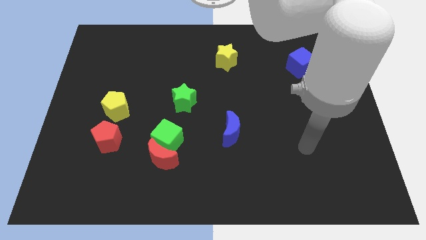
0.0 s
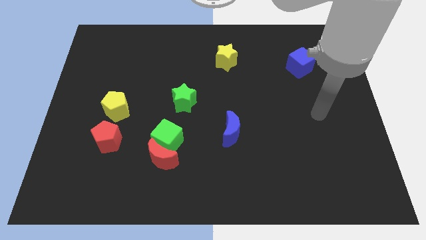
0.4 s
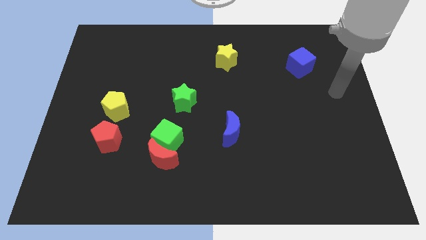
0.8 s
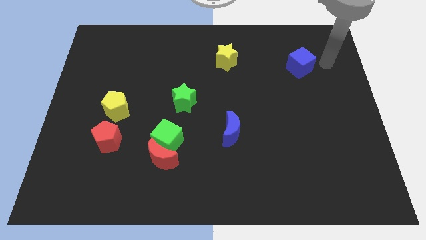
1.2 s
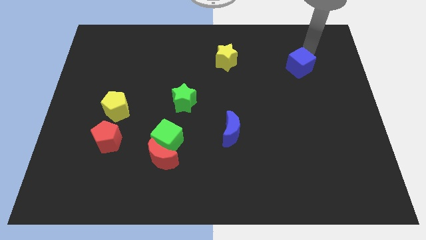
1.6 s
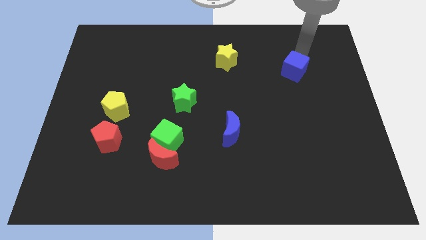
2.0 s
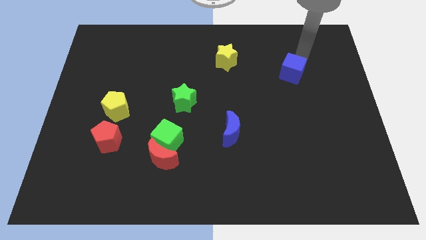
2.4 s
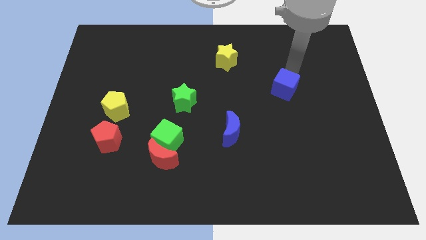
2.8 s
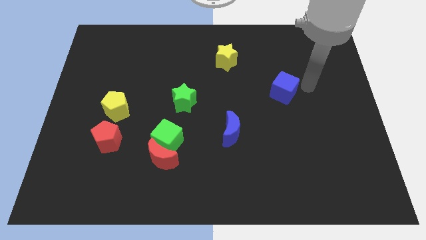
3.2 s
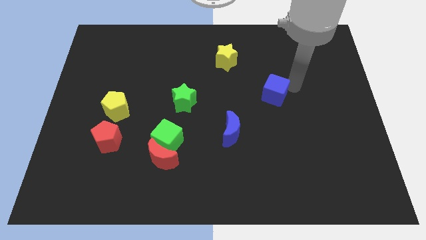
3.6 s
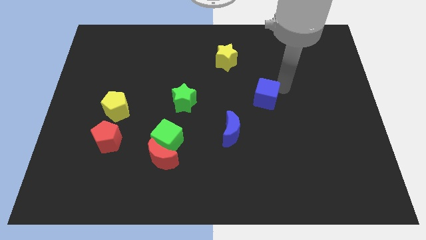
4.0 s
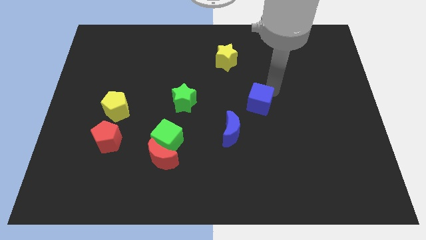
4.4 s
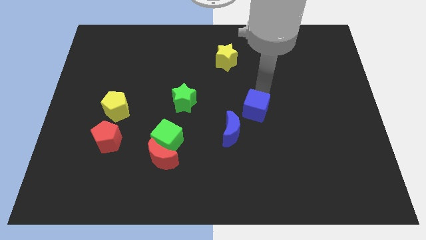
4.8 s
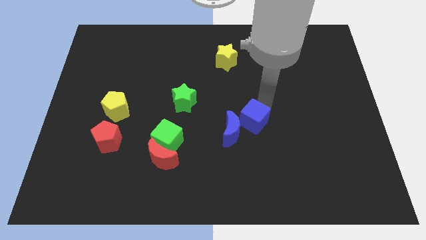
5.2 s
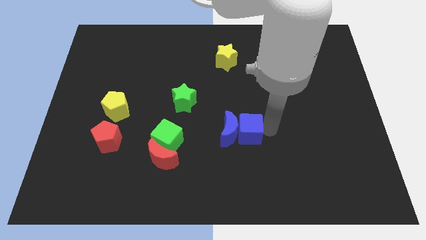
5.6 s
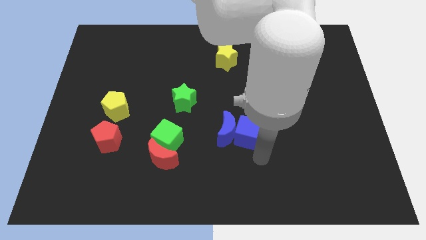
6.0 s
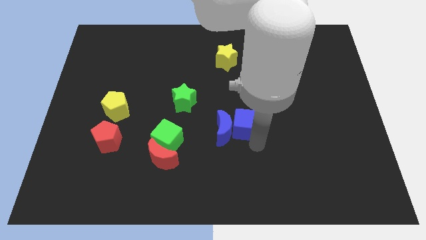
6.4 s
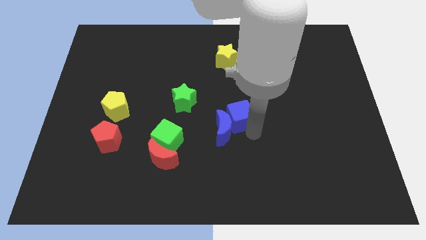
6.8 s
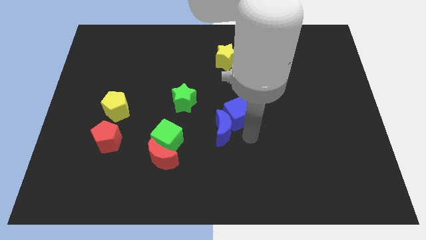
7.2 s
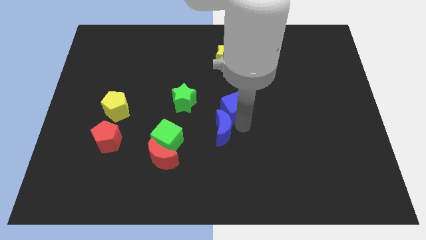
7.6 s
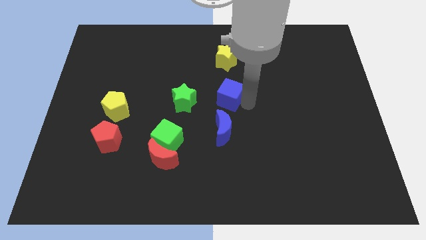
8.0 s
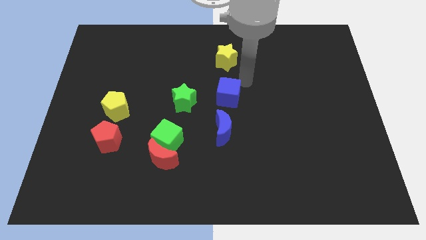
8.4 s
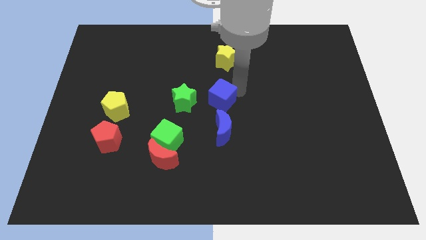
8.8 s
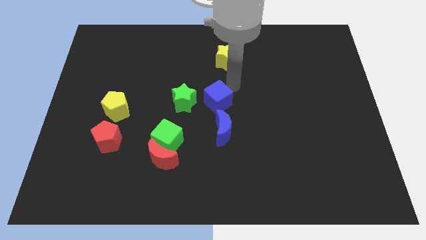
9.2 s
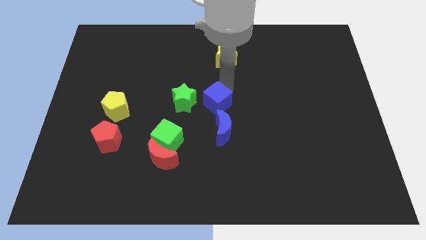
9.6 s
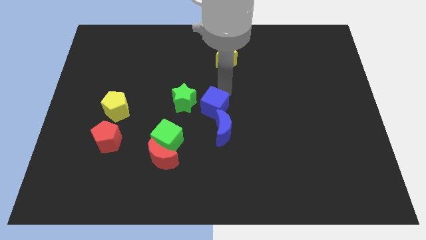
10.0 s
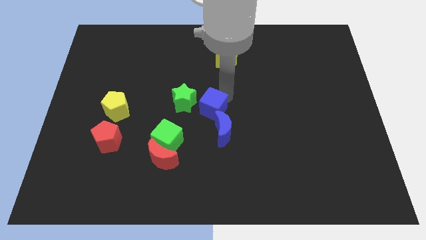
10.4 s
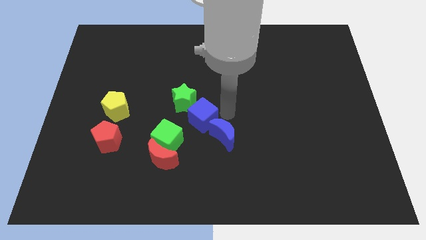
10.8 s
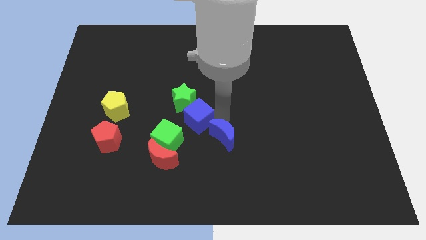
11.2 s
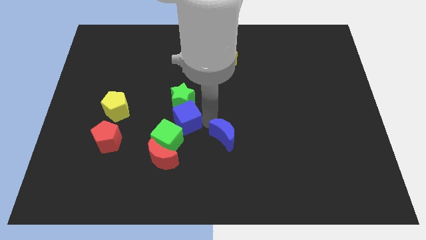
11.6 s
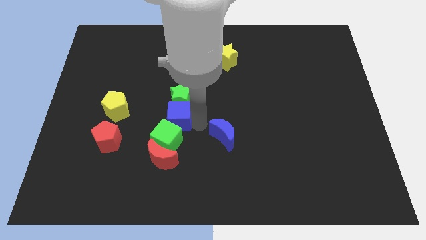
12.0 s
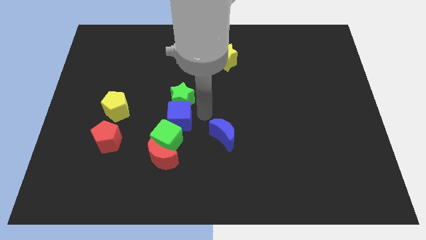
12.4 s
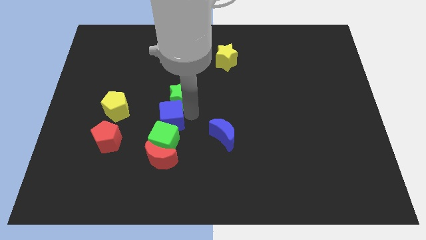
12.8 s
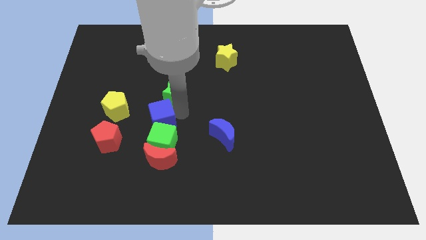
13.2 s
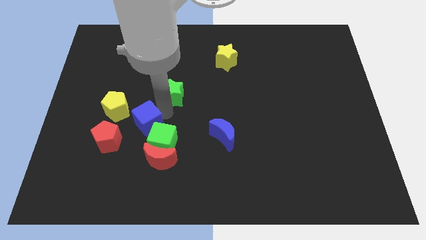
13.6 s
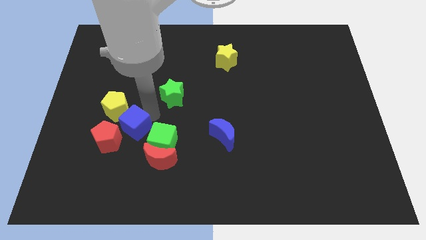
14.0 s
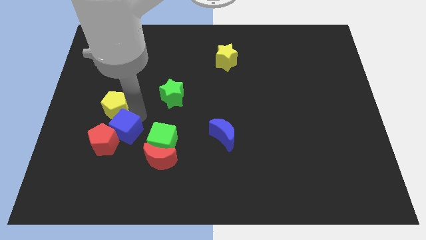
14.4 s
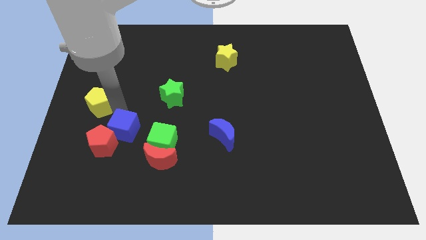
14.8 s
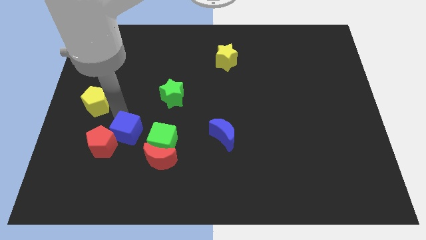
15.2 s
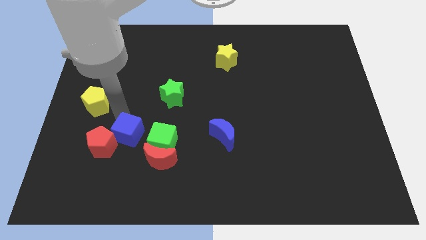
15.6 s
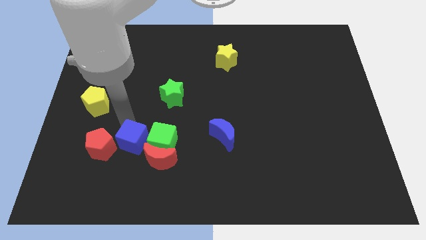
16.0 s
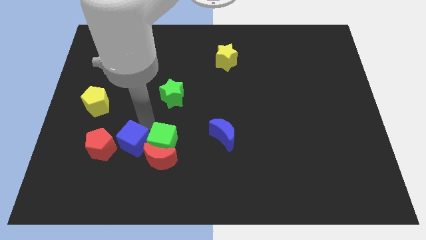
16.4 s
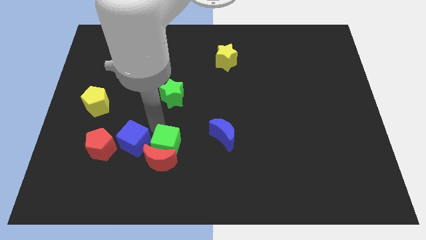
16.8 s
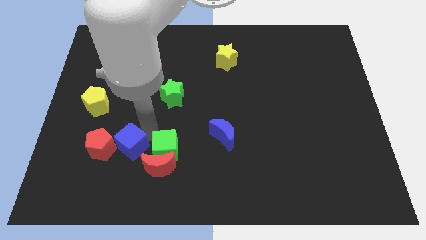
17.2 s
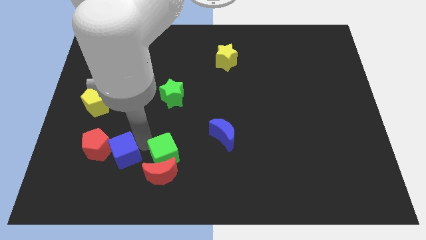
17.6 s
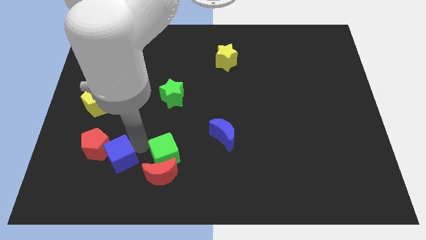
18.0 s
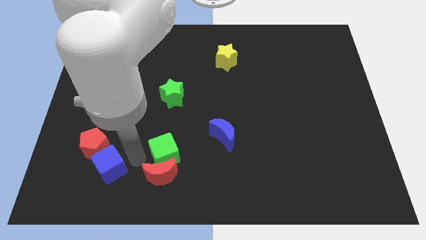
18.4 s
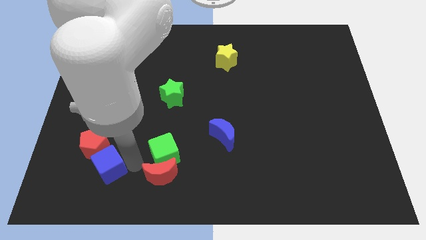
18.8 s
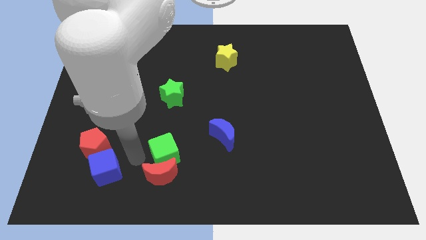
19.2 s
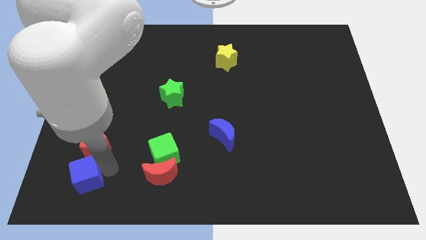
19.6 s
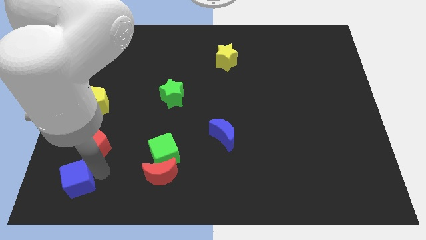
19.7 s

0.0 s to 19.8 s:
move the blue cube to the lower left corner

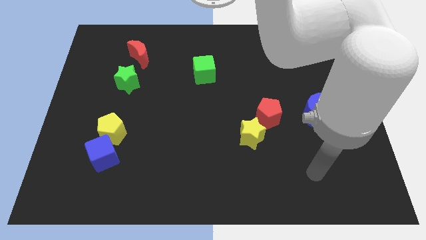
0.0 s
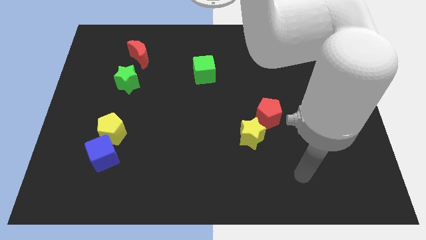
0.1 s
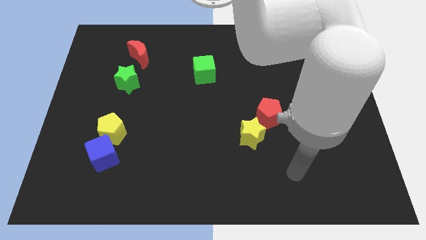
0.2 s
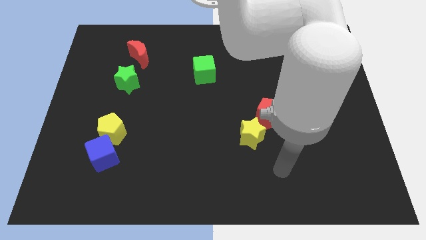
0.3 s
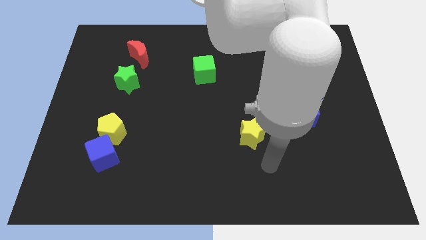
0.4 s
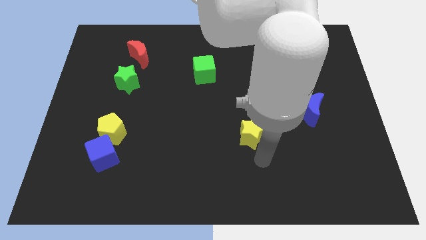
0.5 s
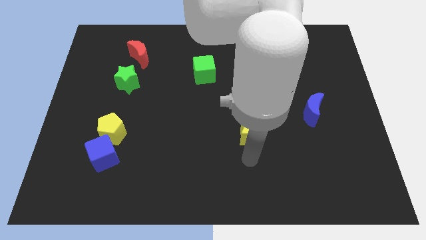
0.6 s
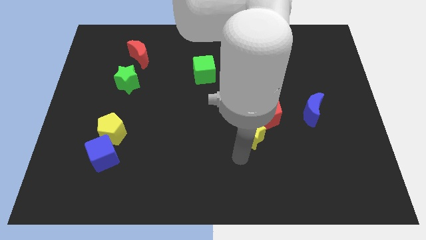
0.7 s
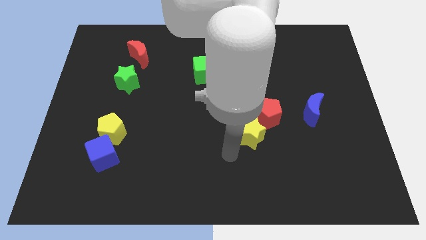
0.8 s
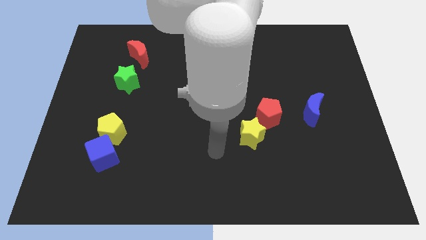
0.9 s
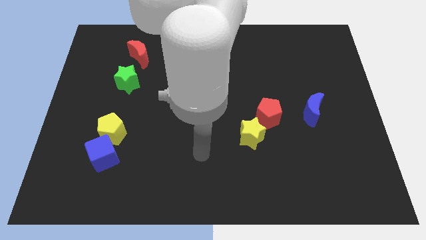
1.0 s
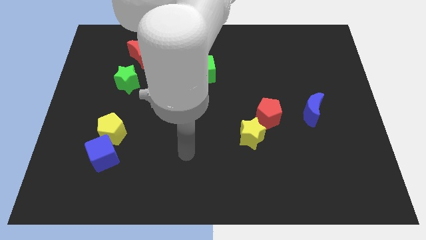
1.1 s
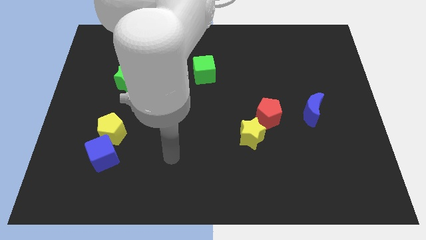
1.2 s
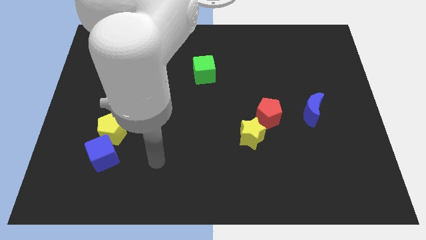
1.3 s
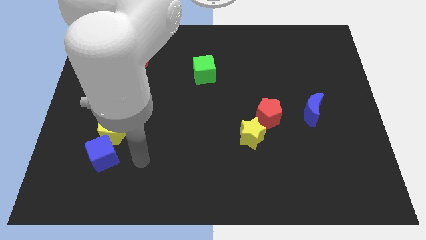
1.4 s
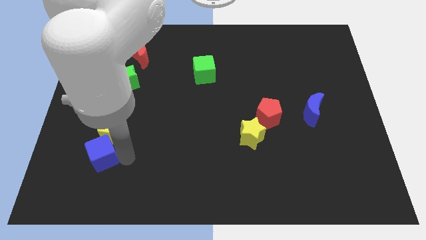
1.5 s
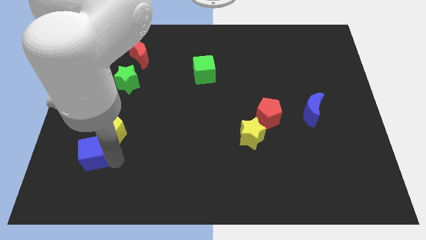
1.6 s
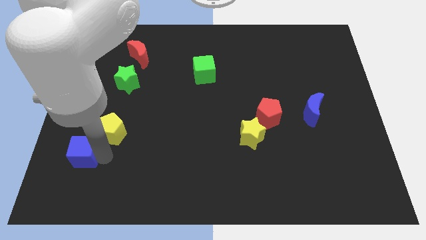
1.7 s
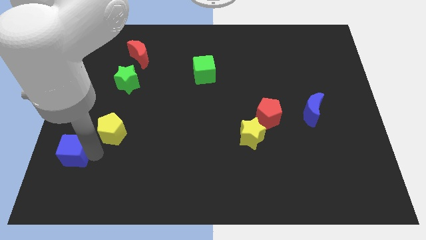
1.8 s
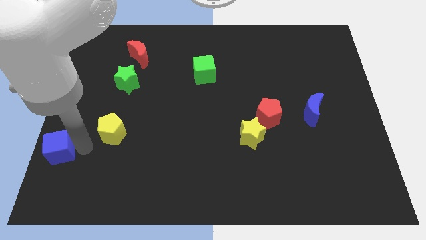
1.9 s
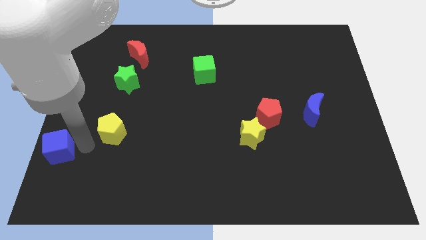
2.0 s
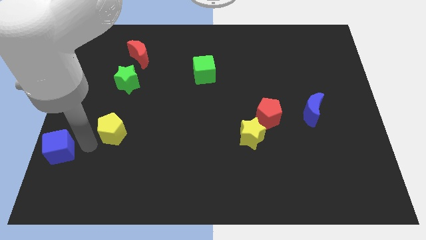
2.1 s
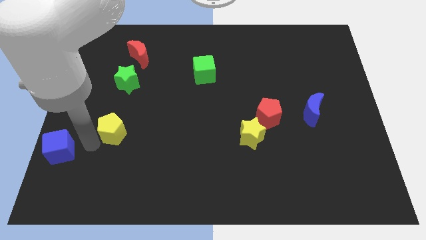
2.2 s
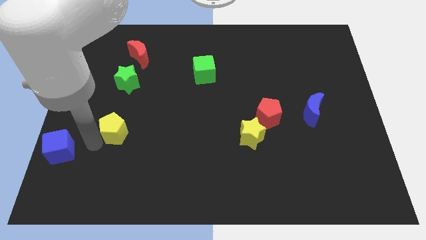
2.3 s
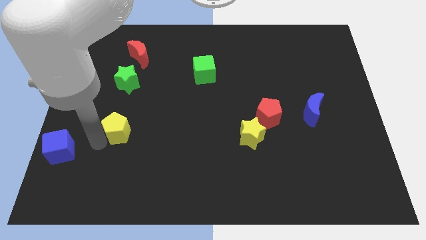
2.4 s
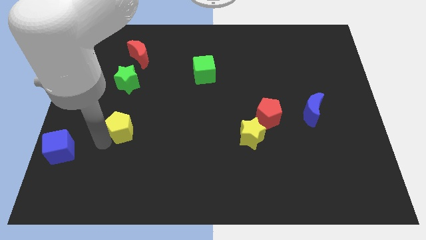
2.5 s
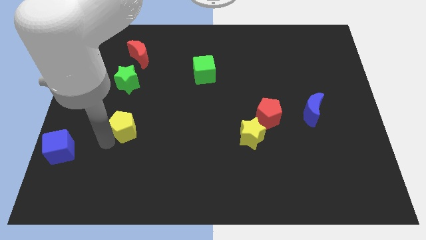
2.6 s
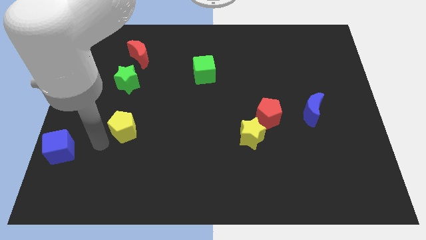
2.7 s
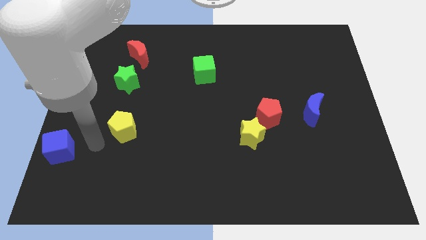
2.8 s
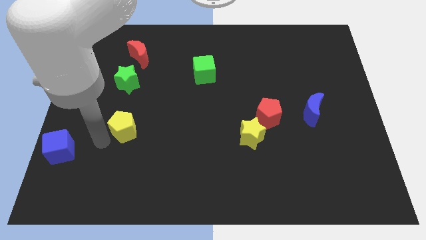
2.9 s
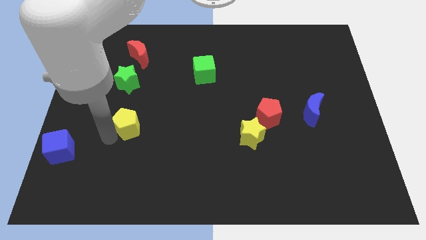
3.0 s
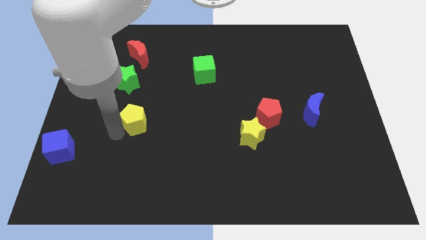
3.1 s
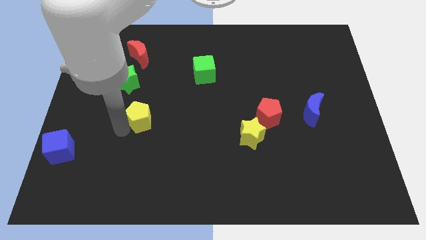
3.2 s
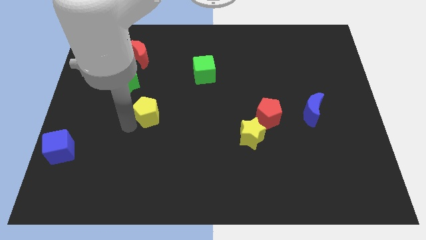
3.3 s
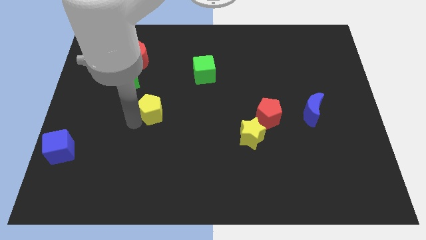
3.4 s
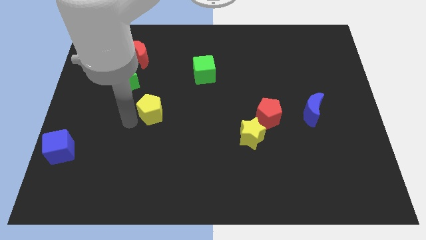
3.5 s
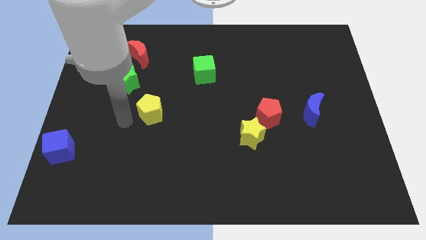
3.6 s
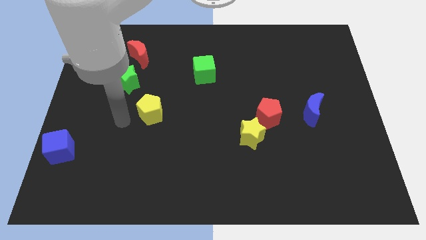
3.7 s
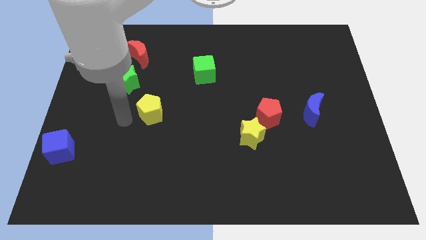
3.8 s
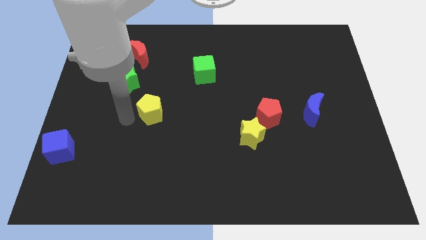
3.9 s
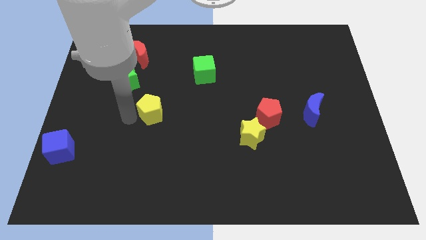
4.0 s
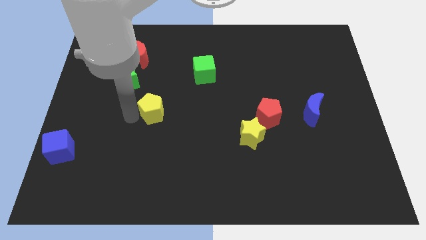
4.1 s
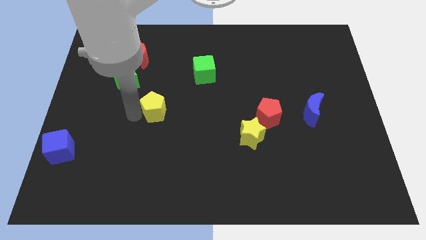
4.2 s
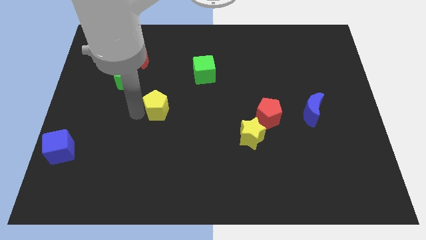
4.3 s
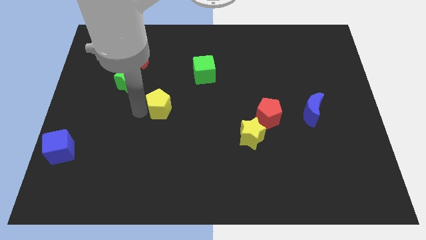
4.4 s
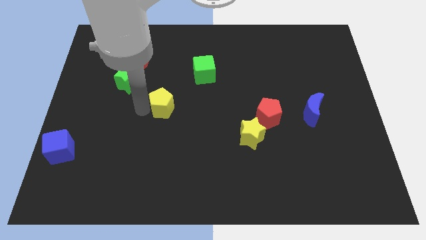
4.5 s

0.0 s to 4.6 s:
slide the yellow pentagon to the middle
